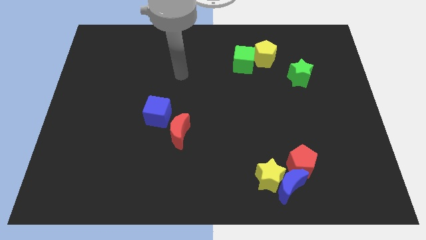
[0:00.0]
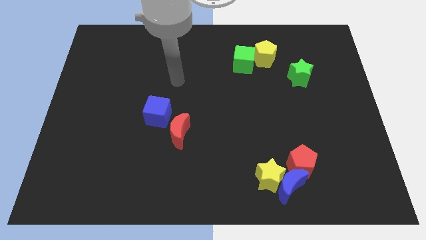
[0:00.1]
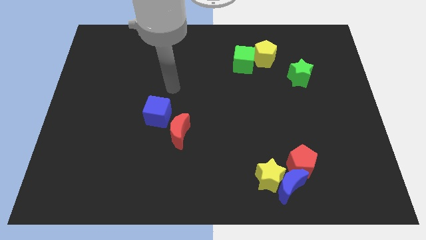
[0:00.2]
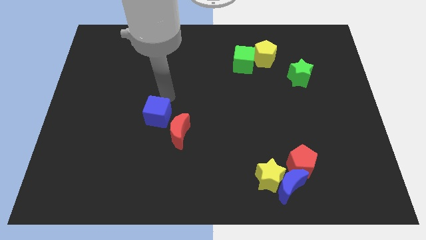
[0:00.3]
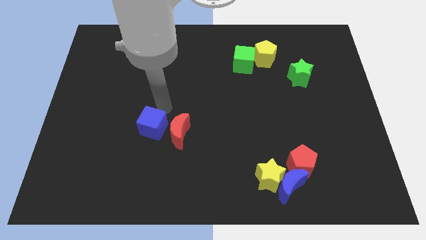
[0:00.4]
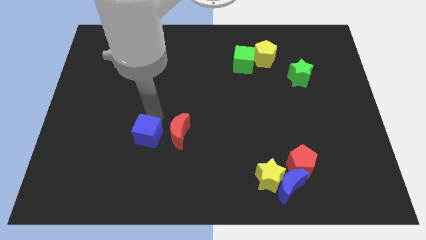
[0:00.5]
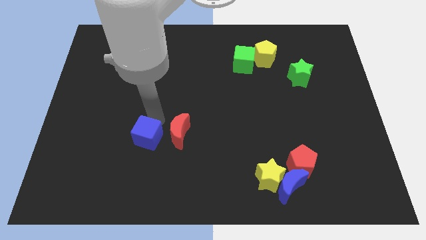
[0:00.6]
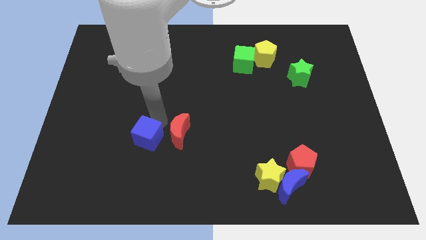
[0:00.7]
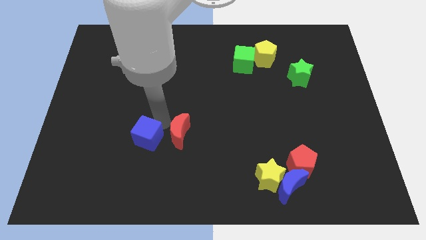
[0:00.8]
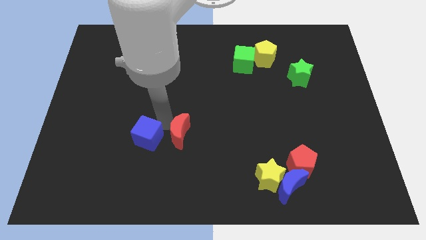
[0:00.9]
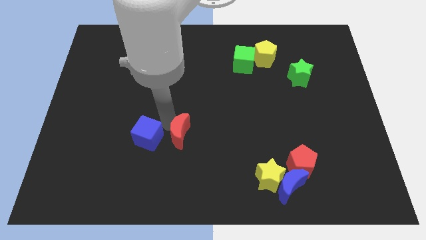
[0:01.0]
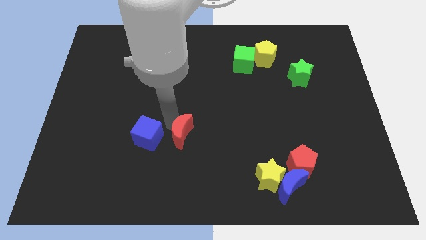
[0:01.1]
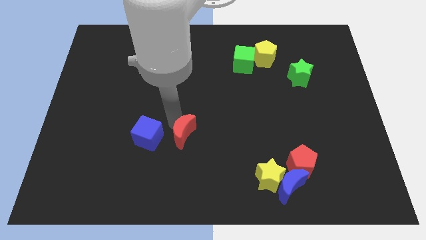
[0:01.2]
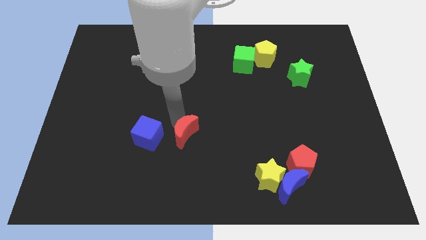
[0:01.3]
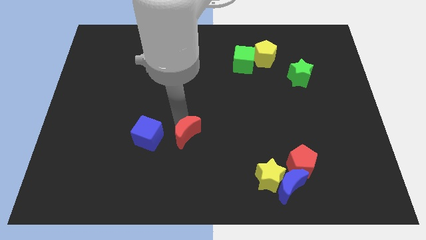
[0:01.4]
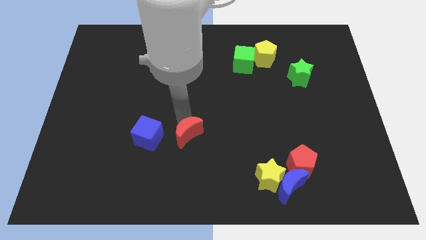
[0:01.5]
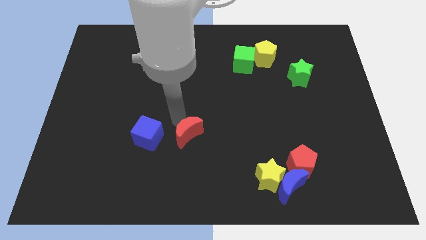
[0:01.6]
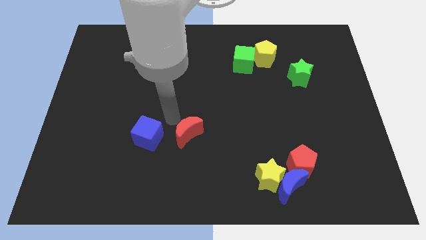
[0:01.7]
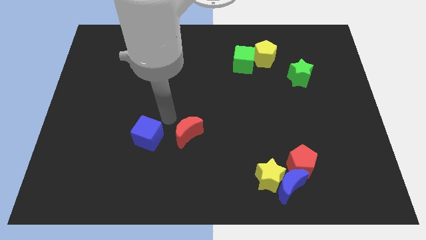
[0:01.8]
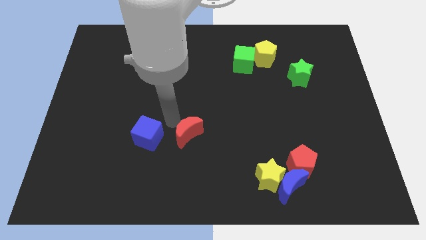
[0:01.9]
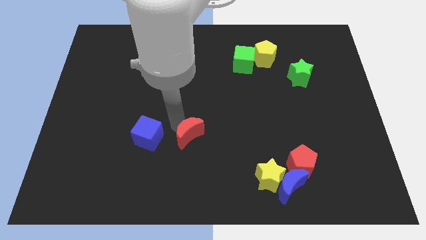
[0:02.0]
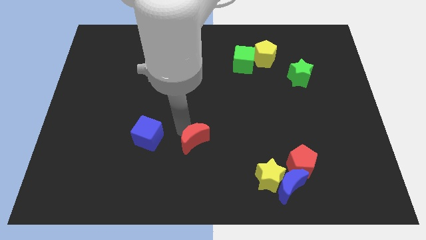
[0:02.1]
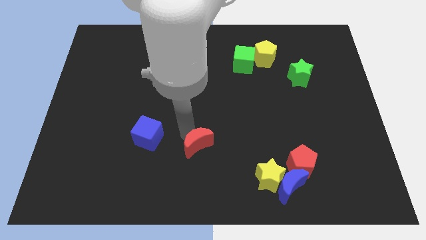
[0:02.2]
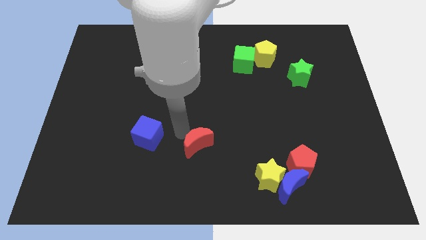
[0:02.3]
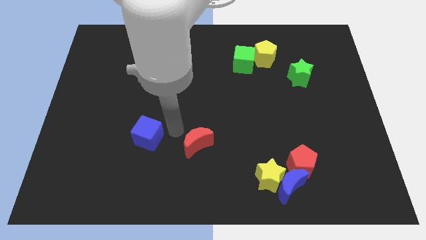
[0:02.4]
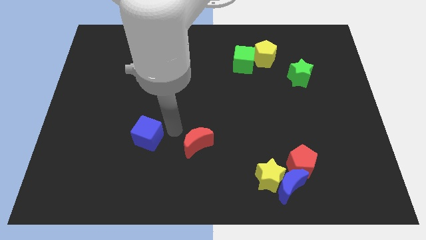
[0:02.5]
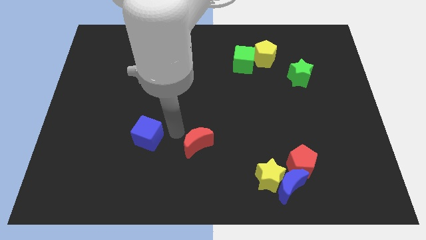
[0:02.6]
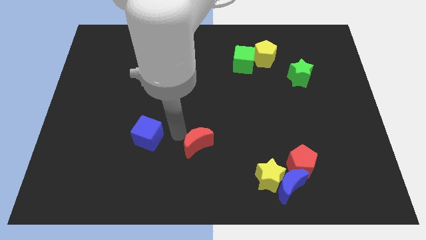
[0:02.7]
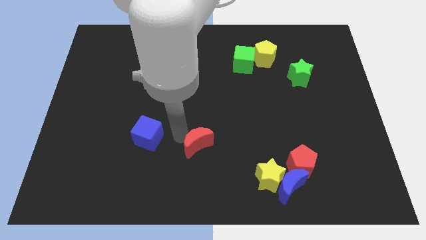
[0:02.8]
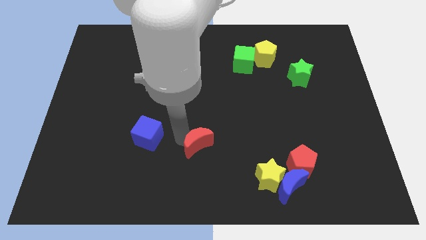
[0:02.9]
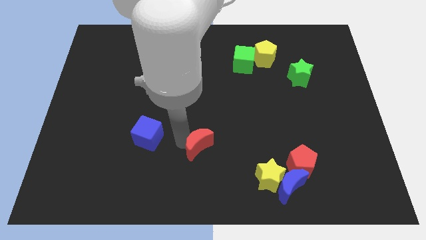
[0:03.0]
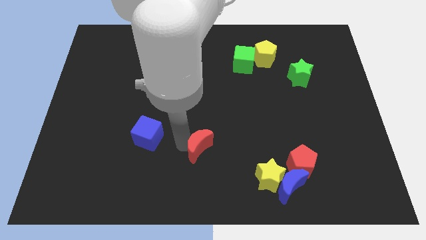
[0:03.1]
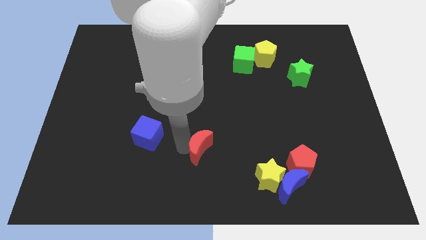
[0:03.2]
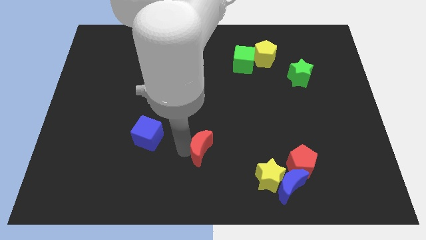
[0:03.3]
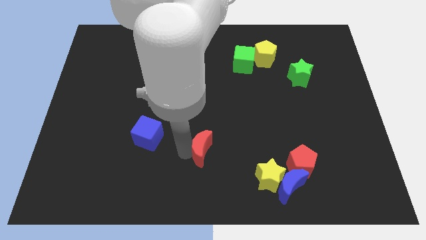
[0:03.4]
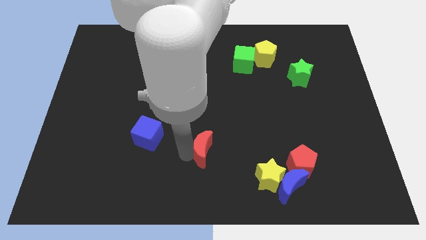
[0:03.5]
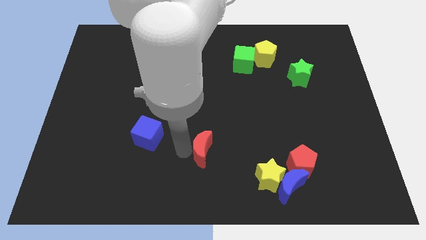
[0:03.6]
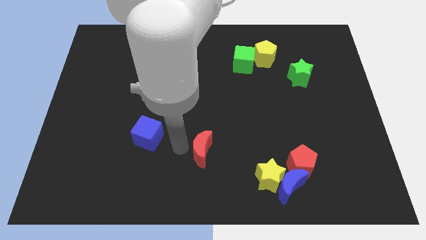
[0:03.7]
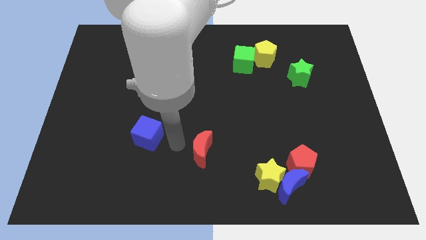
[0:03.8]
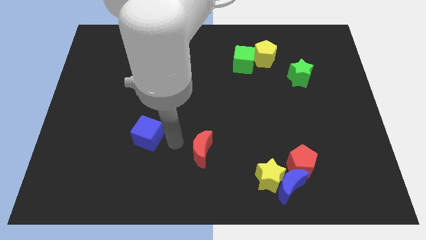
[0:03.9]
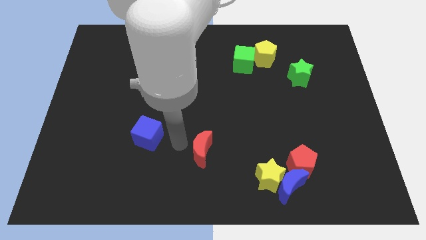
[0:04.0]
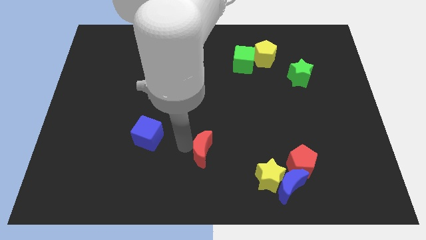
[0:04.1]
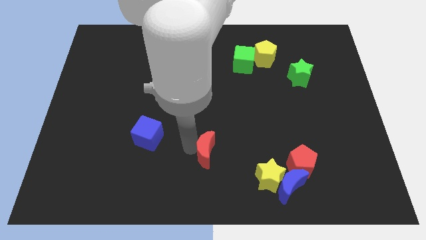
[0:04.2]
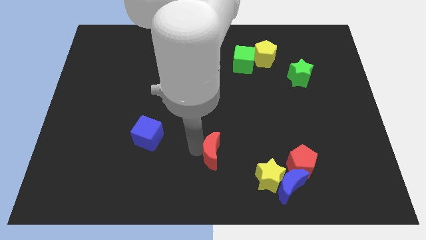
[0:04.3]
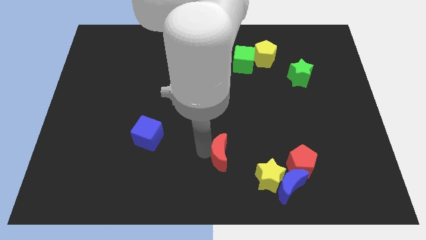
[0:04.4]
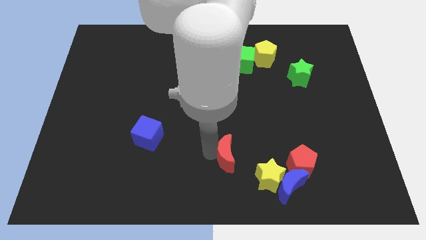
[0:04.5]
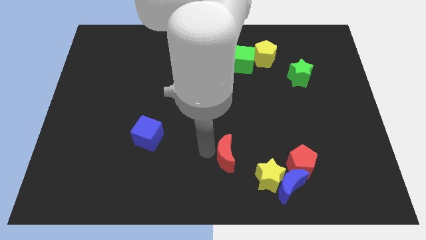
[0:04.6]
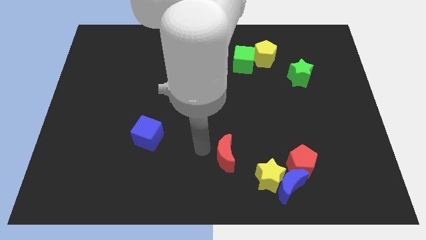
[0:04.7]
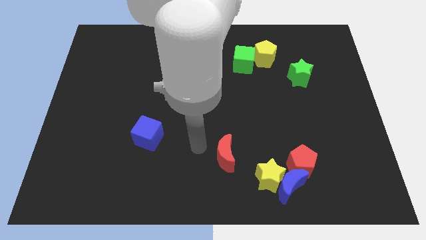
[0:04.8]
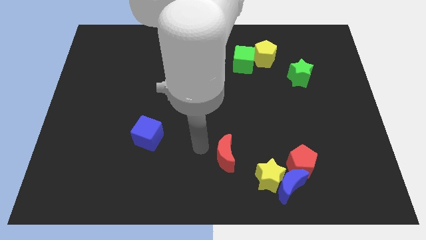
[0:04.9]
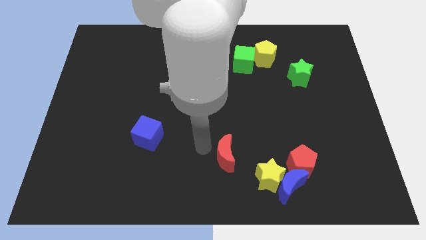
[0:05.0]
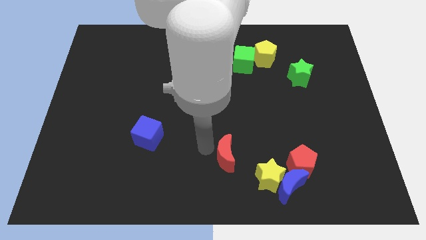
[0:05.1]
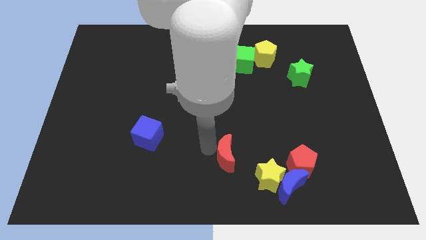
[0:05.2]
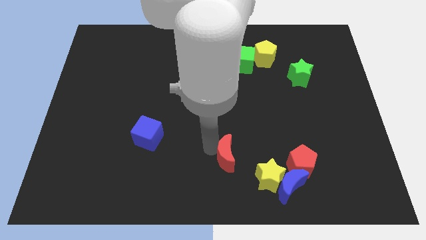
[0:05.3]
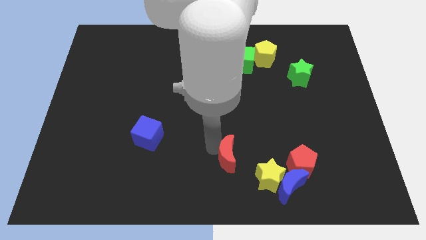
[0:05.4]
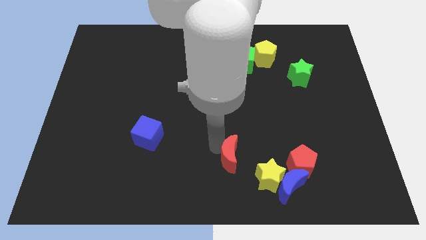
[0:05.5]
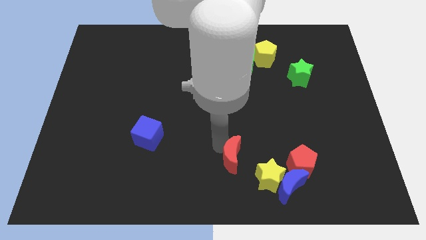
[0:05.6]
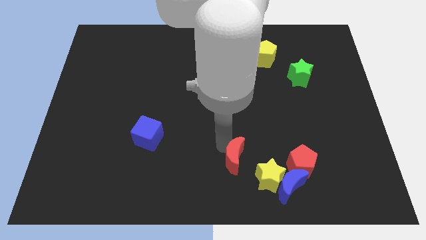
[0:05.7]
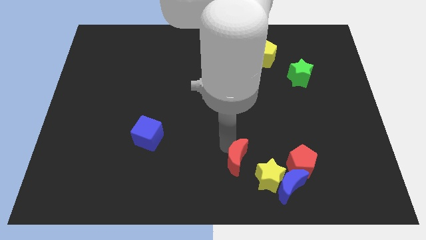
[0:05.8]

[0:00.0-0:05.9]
move the red moon diagonally up and to the left of the blue moon

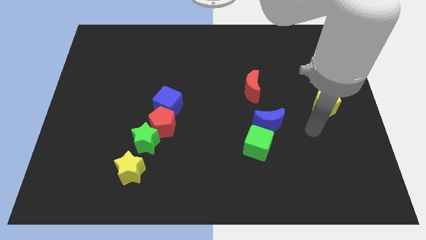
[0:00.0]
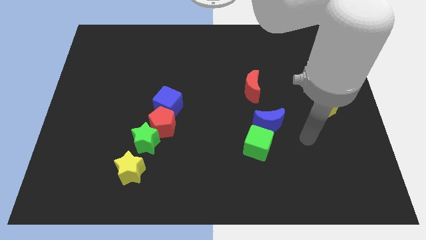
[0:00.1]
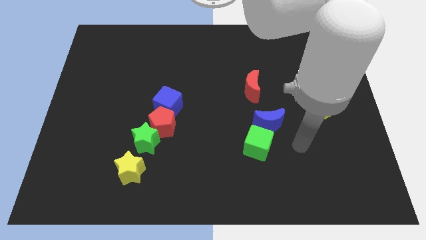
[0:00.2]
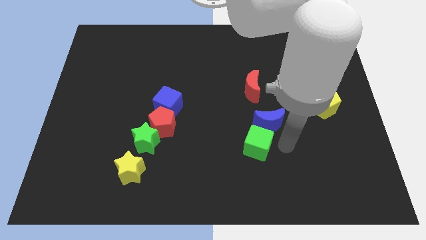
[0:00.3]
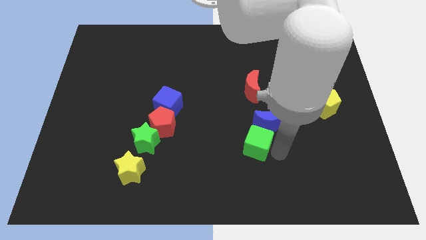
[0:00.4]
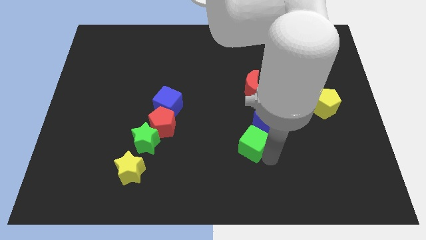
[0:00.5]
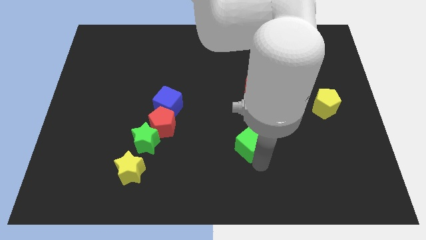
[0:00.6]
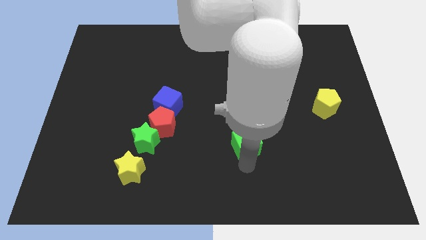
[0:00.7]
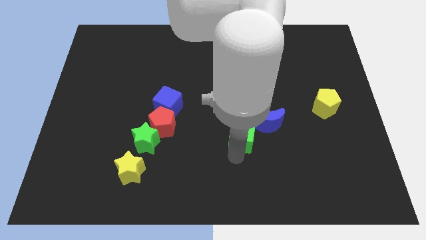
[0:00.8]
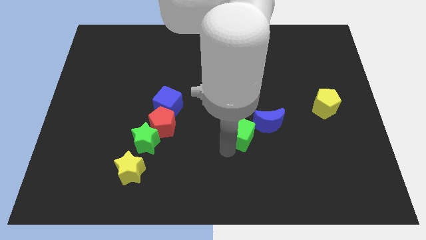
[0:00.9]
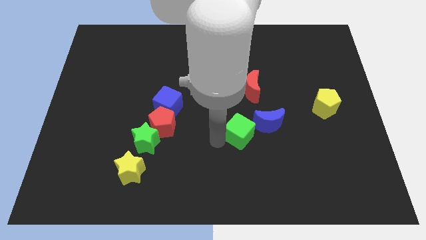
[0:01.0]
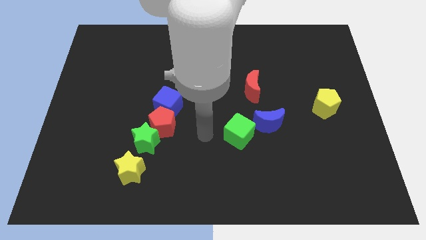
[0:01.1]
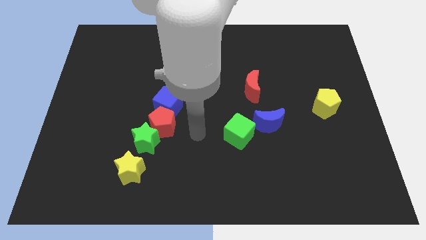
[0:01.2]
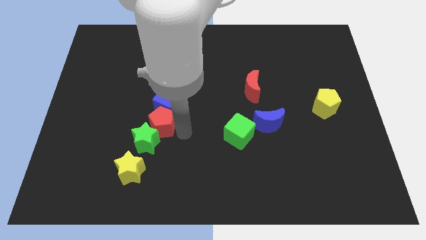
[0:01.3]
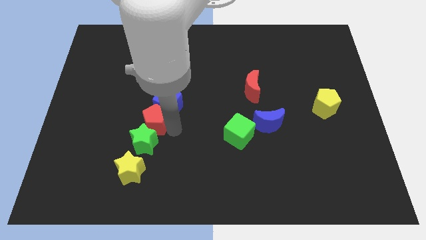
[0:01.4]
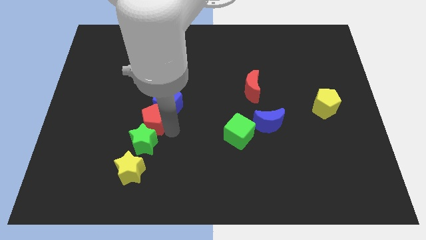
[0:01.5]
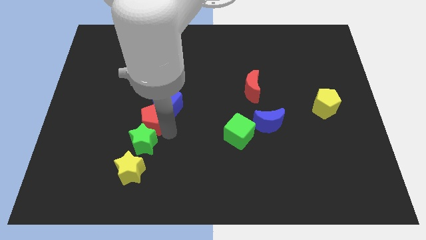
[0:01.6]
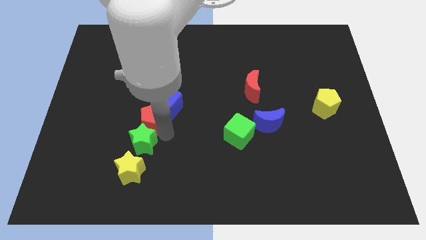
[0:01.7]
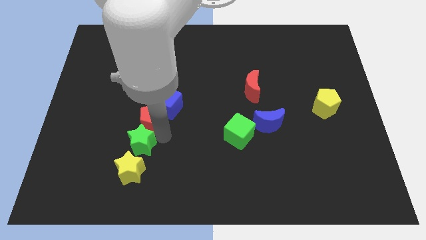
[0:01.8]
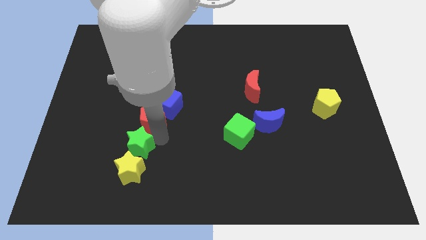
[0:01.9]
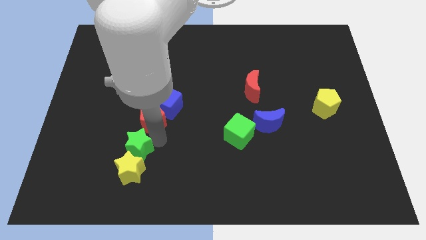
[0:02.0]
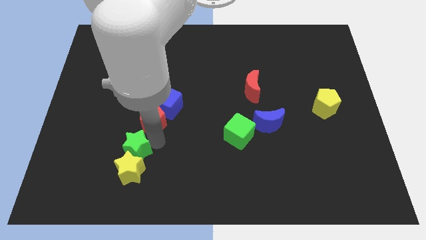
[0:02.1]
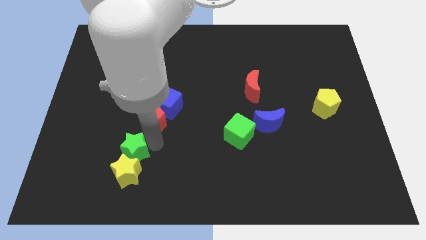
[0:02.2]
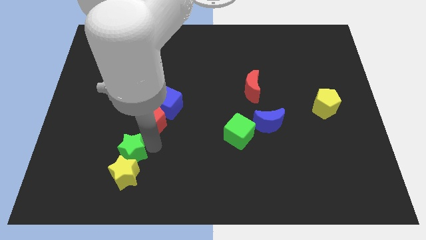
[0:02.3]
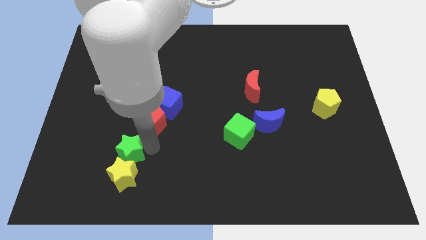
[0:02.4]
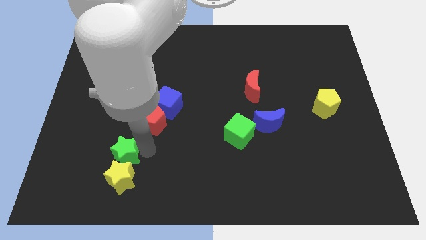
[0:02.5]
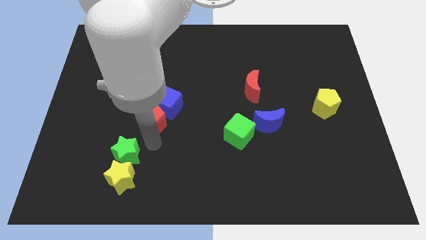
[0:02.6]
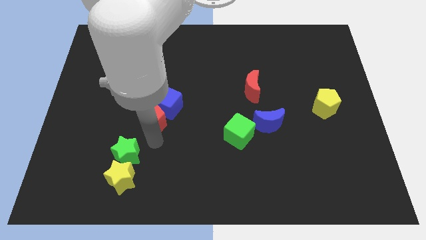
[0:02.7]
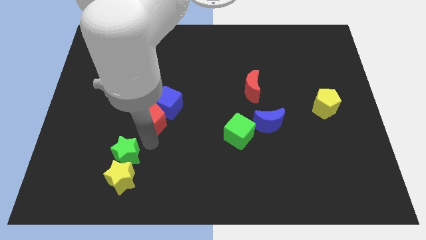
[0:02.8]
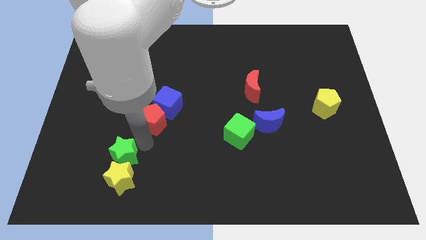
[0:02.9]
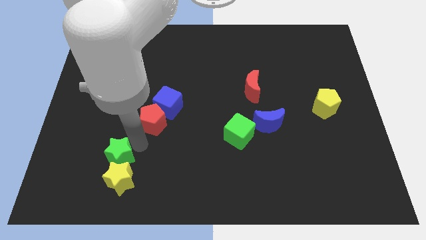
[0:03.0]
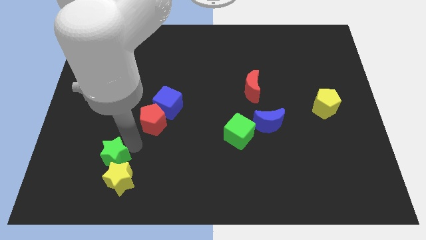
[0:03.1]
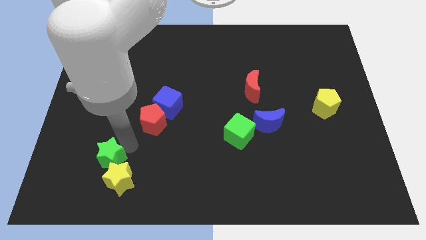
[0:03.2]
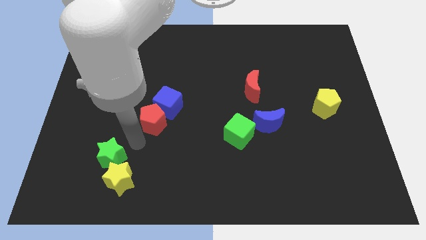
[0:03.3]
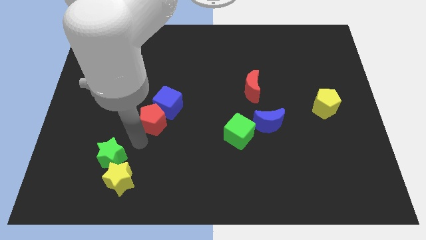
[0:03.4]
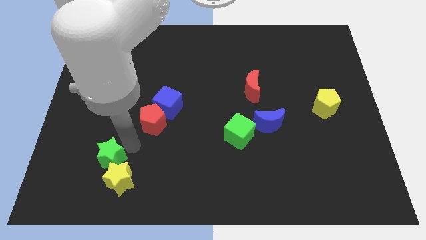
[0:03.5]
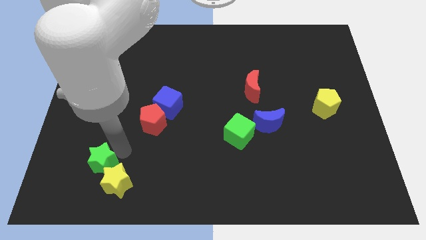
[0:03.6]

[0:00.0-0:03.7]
slide the green star to the left of the yellow star
